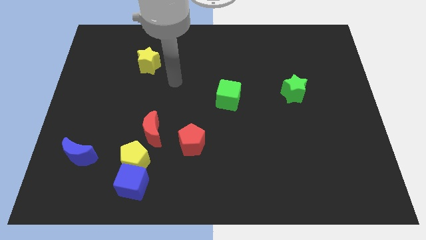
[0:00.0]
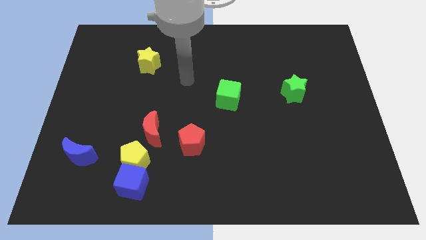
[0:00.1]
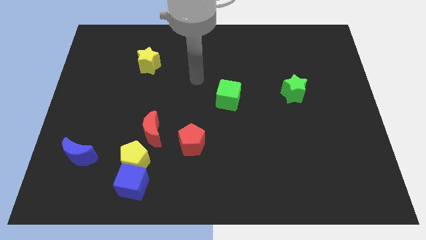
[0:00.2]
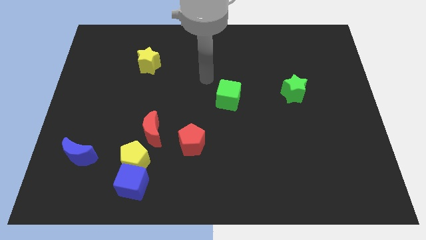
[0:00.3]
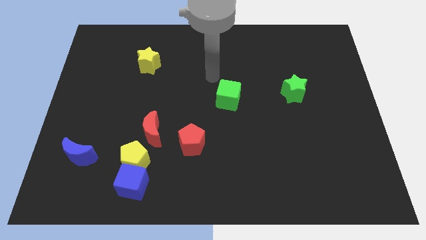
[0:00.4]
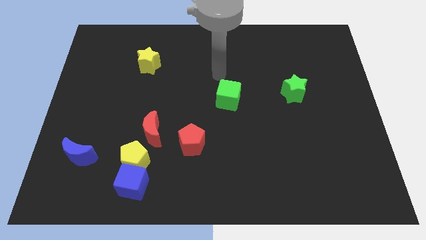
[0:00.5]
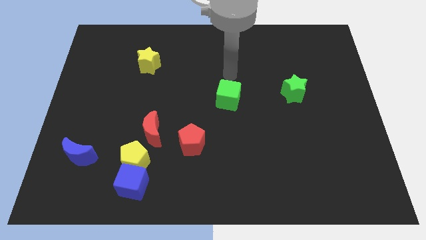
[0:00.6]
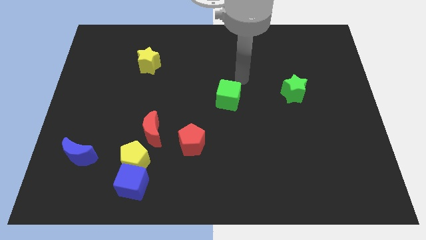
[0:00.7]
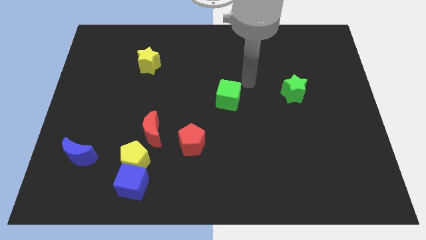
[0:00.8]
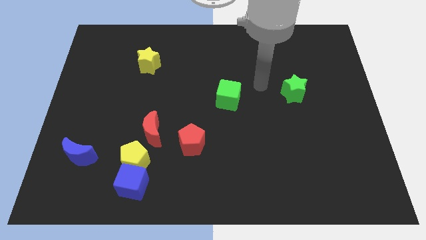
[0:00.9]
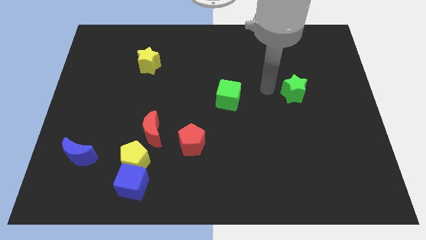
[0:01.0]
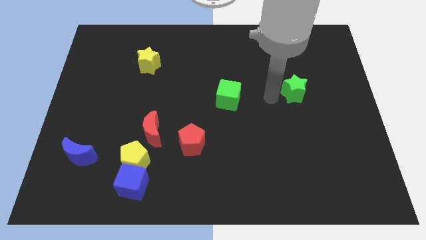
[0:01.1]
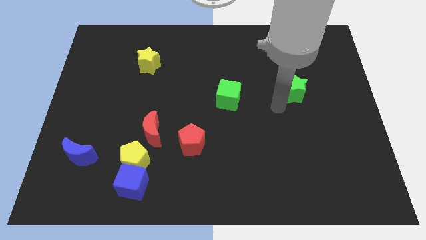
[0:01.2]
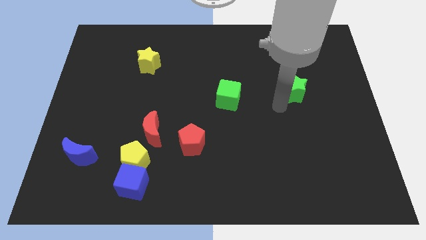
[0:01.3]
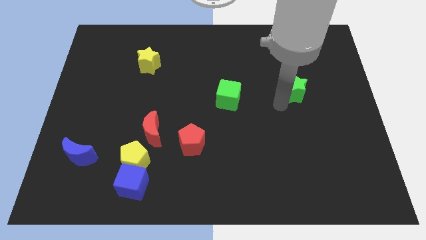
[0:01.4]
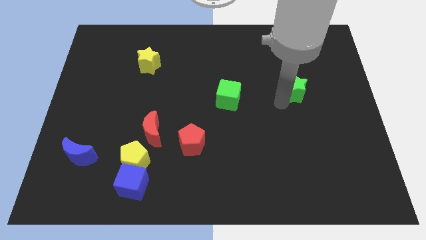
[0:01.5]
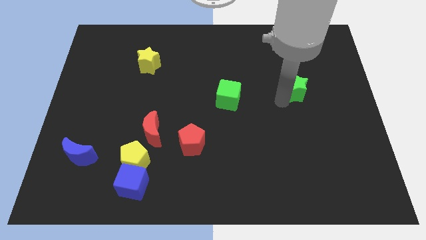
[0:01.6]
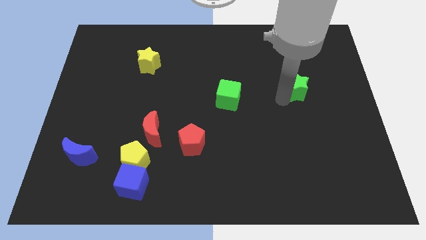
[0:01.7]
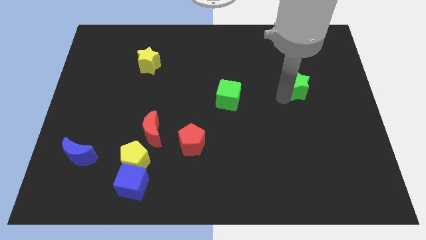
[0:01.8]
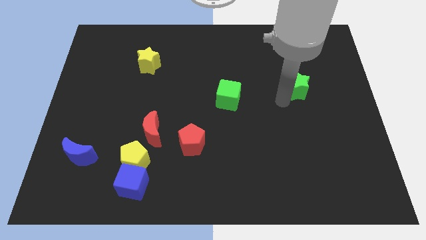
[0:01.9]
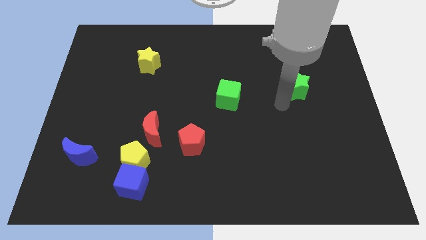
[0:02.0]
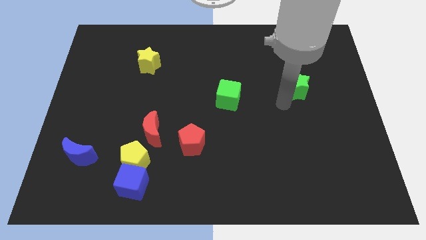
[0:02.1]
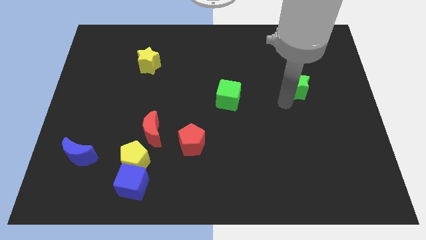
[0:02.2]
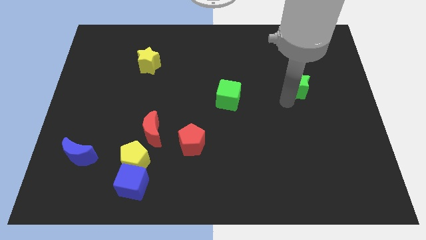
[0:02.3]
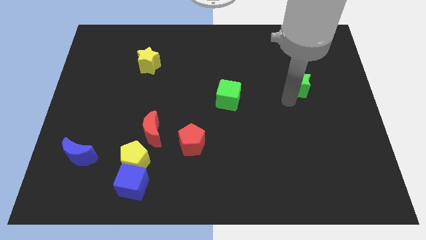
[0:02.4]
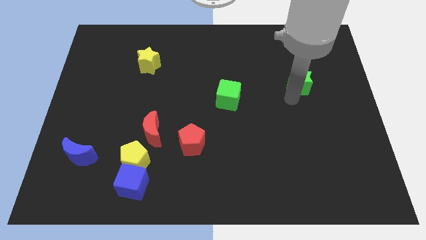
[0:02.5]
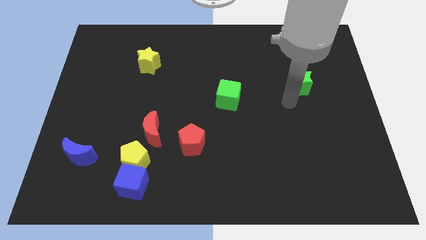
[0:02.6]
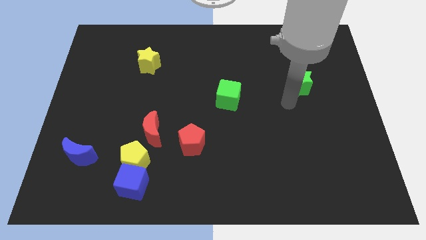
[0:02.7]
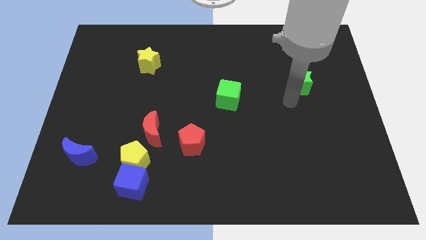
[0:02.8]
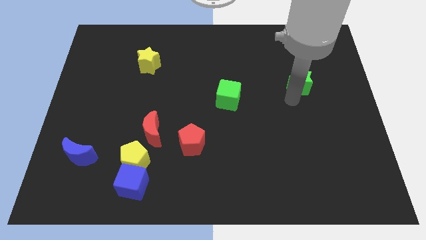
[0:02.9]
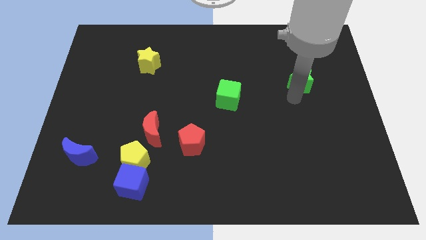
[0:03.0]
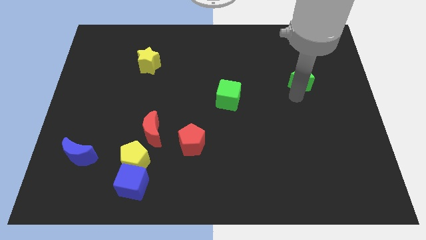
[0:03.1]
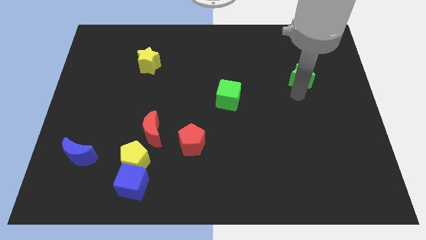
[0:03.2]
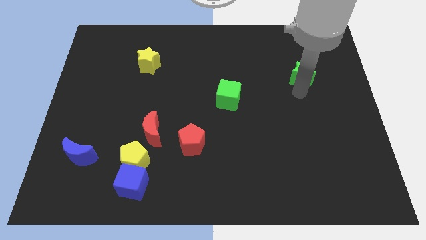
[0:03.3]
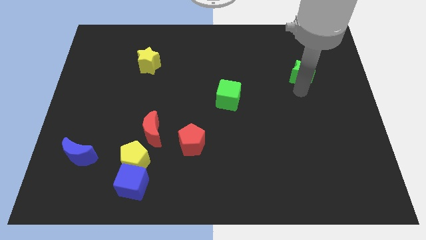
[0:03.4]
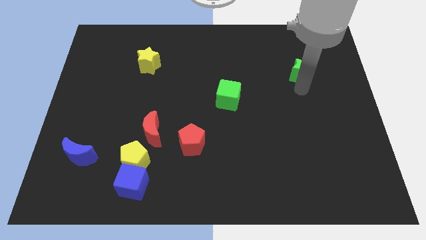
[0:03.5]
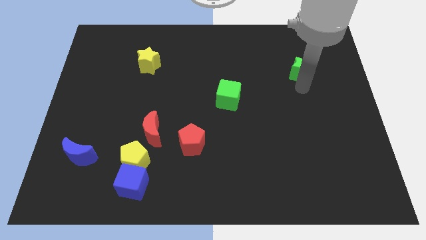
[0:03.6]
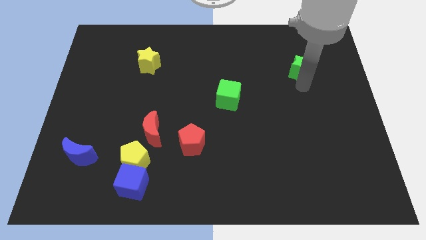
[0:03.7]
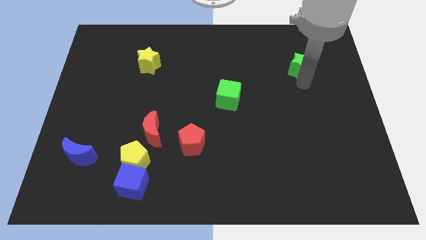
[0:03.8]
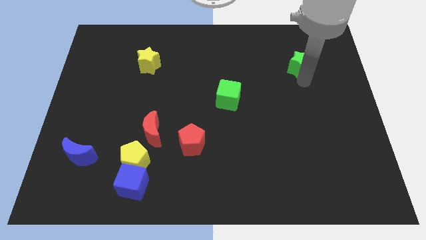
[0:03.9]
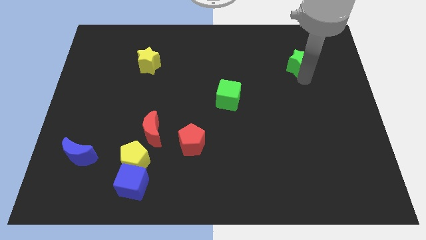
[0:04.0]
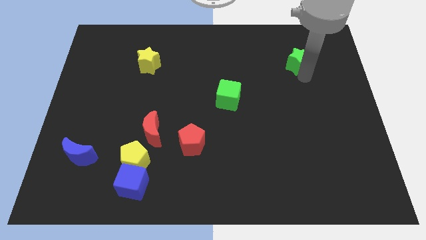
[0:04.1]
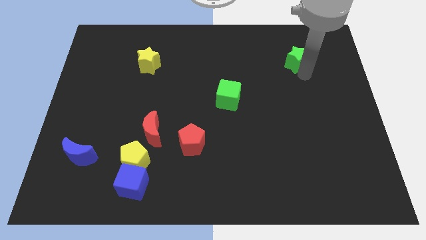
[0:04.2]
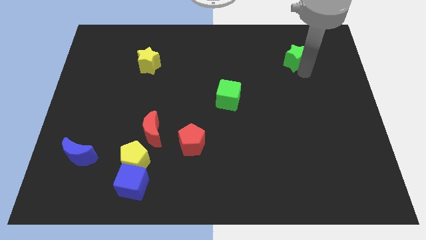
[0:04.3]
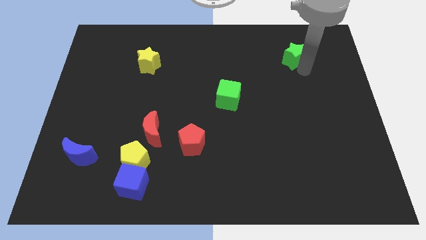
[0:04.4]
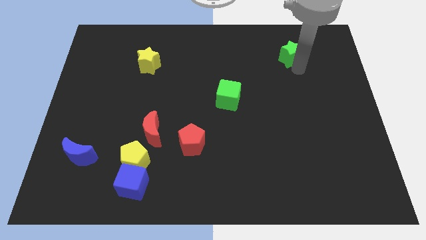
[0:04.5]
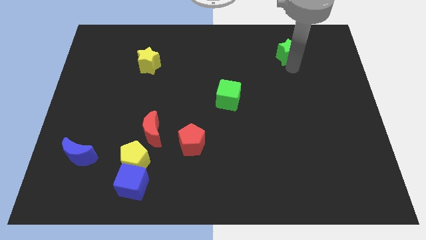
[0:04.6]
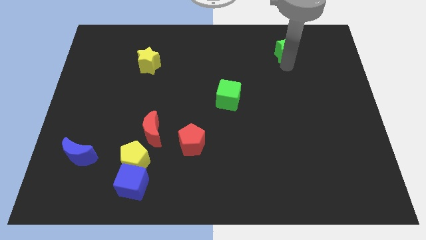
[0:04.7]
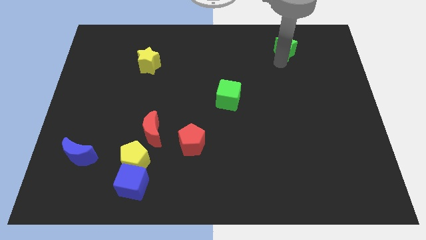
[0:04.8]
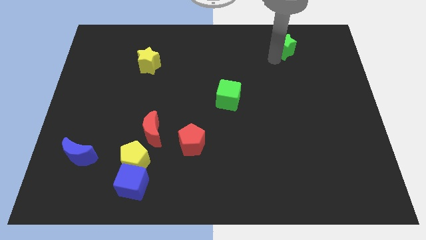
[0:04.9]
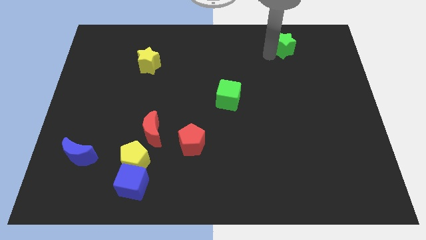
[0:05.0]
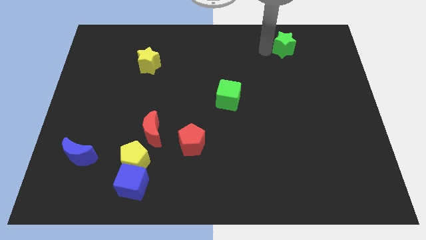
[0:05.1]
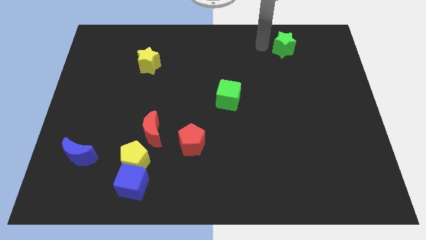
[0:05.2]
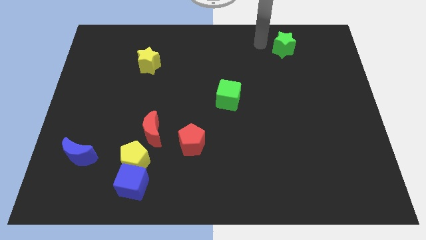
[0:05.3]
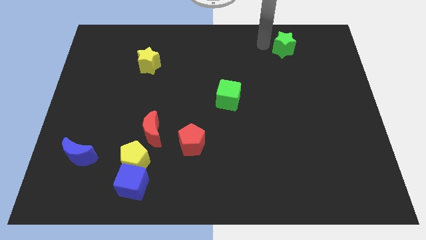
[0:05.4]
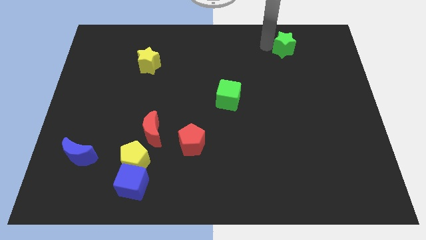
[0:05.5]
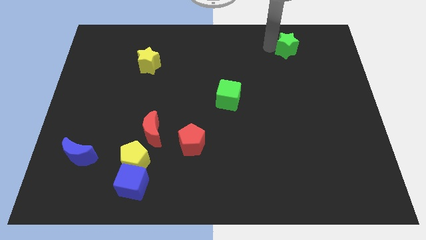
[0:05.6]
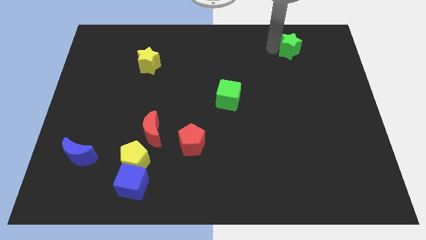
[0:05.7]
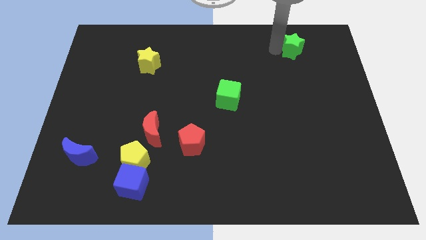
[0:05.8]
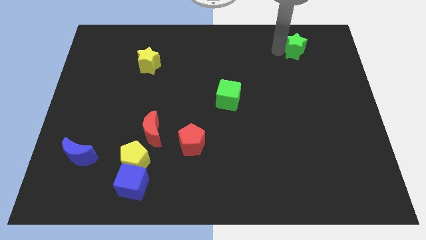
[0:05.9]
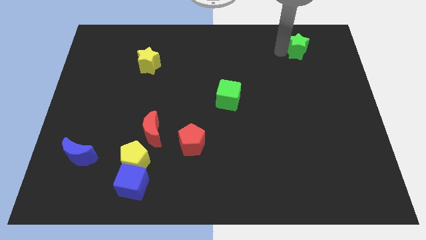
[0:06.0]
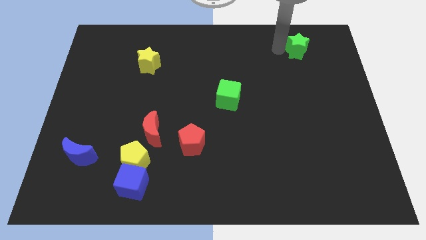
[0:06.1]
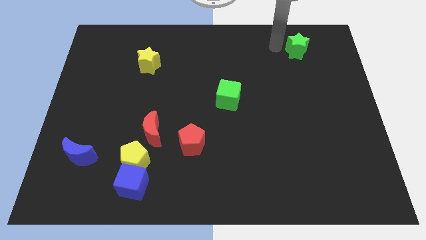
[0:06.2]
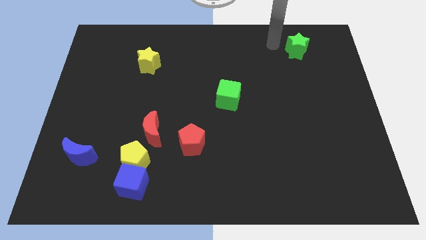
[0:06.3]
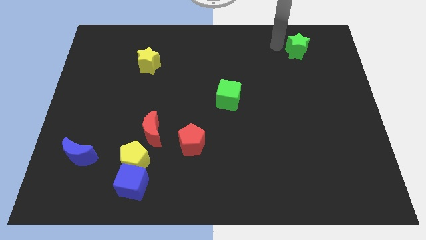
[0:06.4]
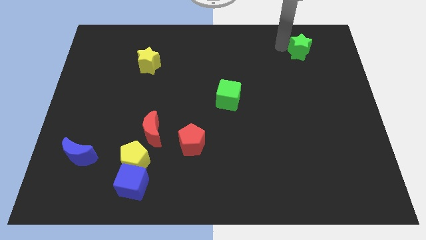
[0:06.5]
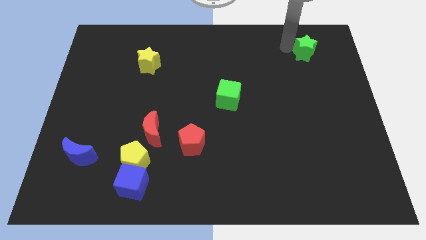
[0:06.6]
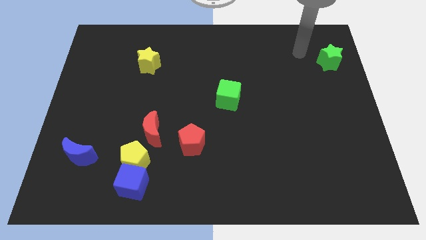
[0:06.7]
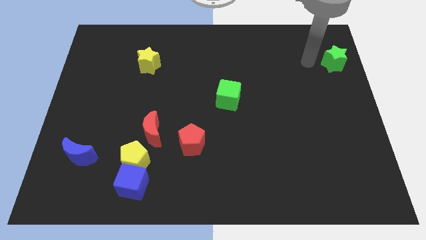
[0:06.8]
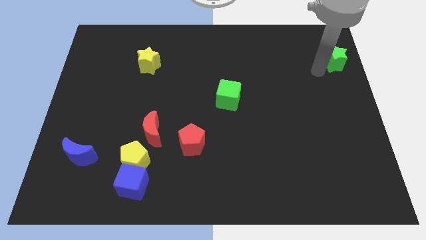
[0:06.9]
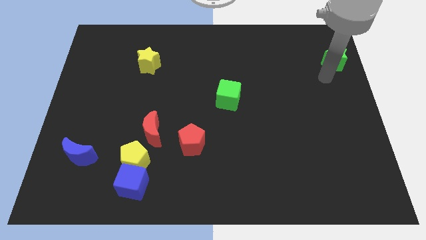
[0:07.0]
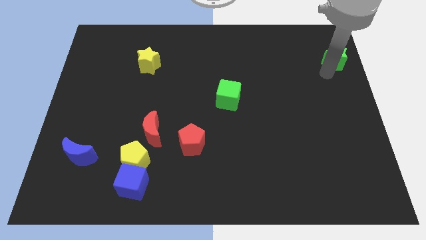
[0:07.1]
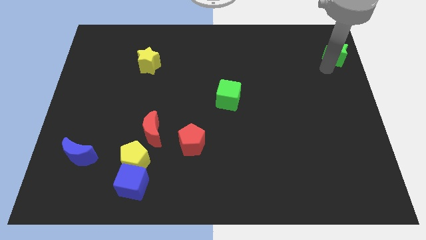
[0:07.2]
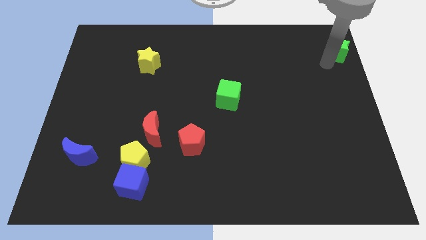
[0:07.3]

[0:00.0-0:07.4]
put the green star to the top right
